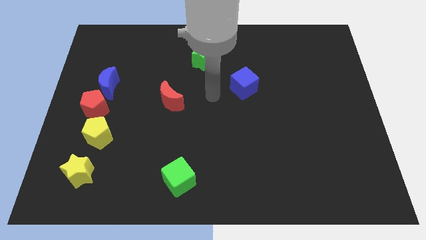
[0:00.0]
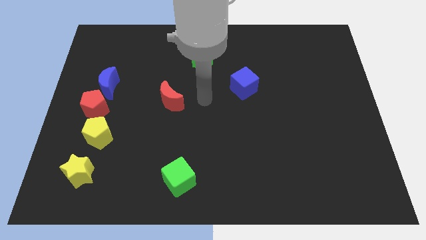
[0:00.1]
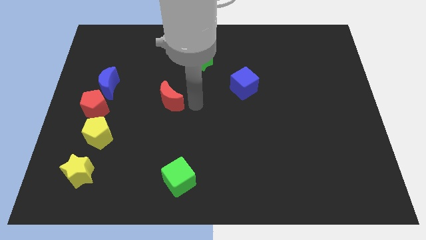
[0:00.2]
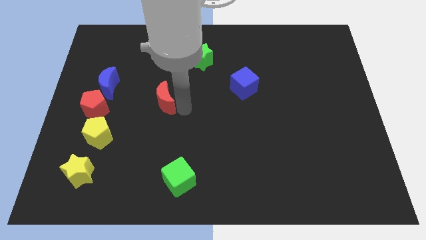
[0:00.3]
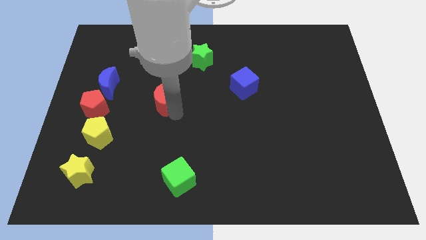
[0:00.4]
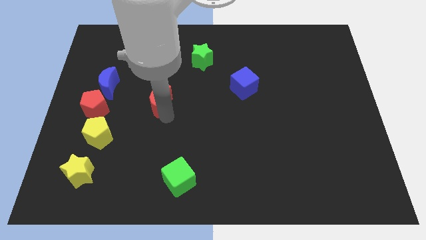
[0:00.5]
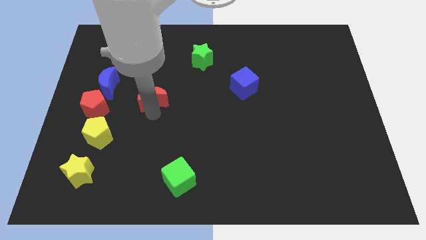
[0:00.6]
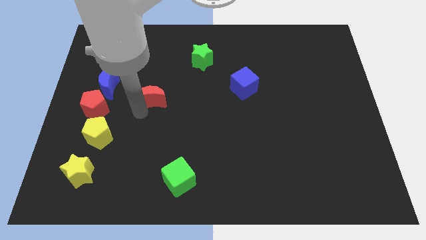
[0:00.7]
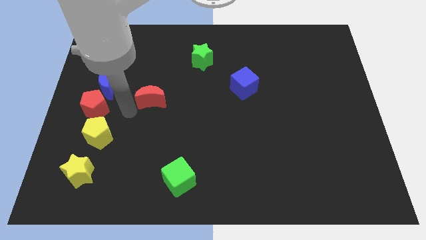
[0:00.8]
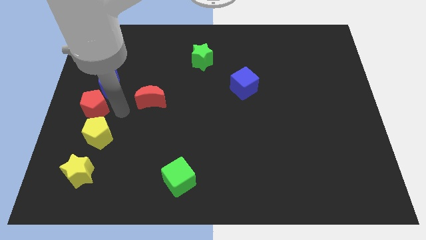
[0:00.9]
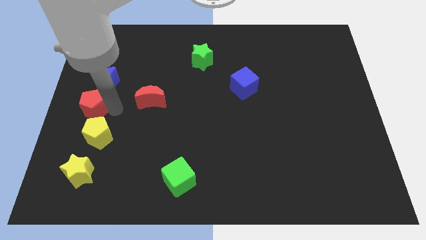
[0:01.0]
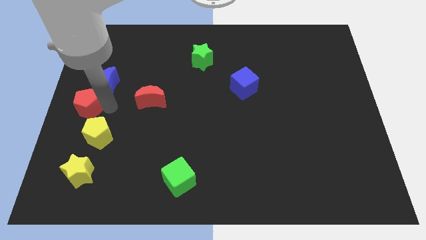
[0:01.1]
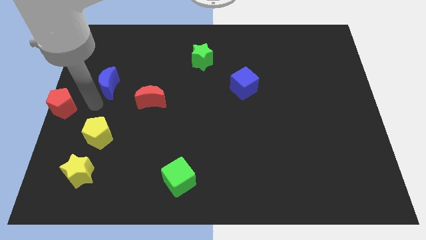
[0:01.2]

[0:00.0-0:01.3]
separate the blue moon from the red pentagon

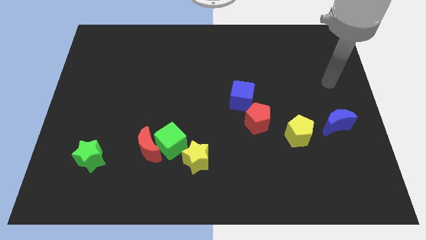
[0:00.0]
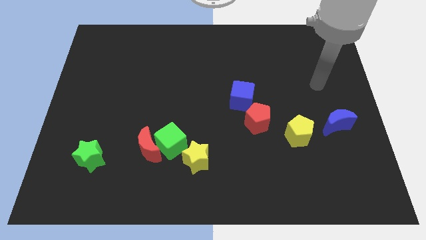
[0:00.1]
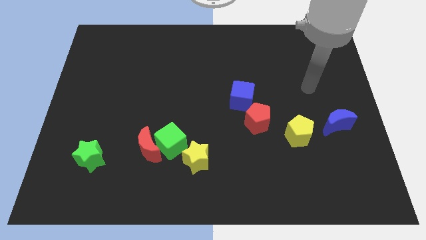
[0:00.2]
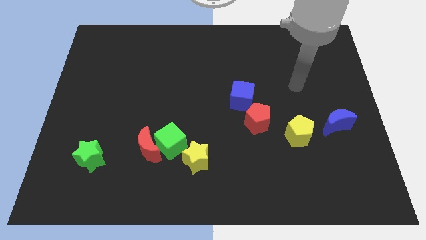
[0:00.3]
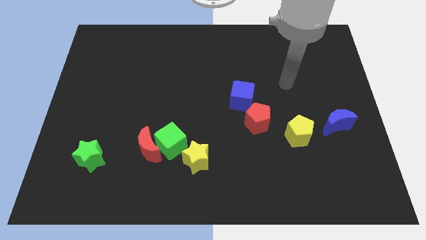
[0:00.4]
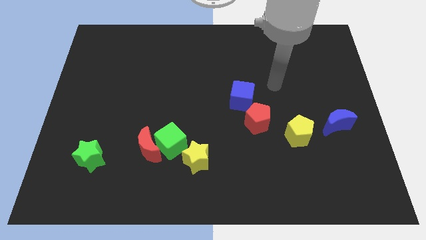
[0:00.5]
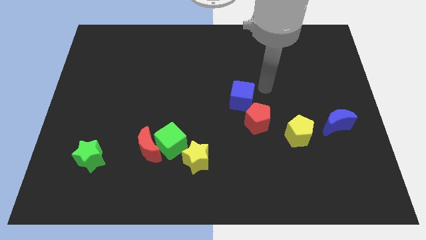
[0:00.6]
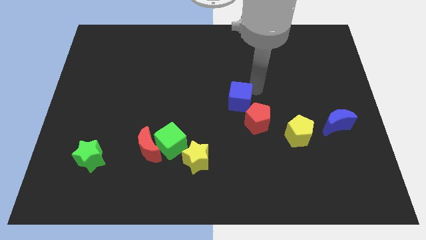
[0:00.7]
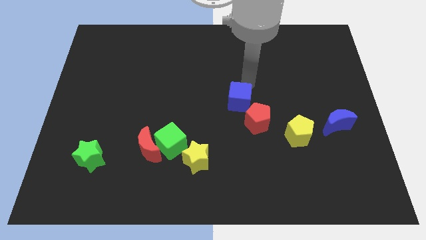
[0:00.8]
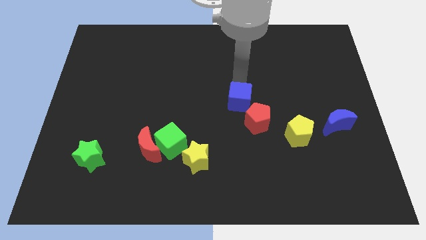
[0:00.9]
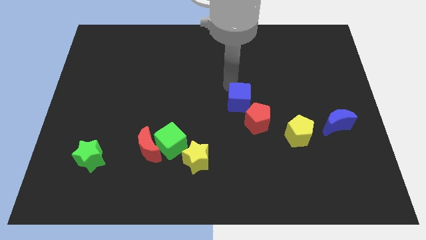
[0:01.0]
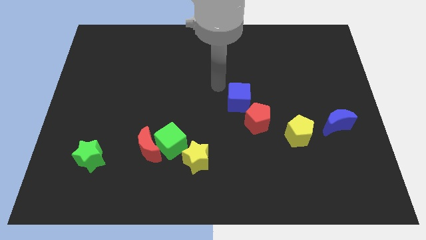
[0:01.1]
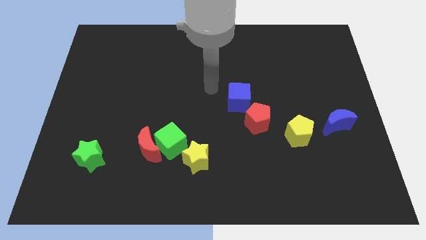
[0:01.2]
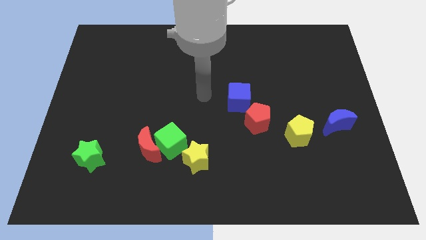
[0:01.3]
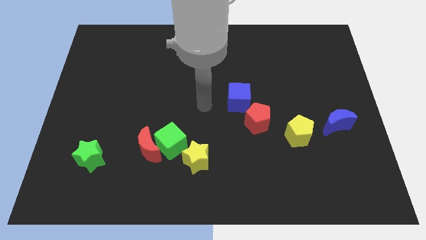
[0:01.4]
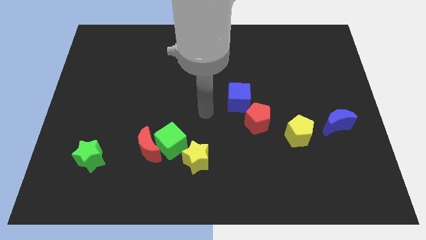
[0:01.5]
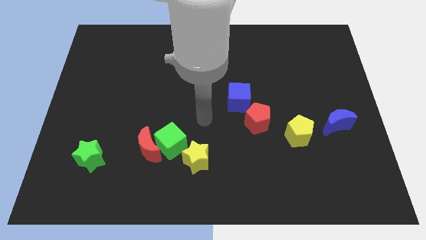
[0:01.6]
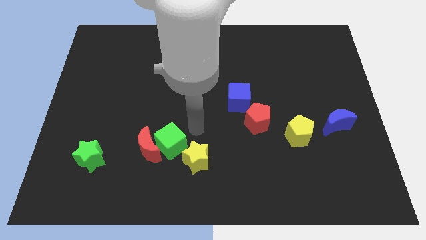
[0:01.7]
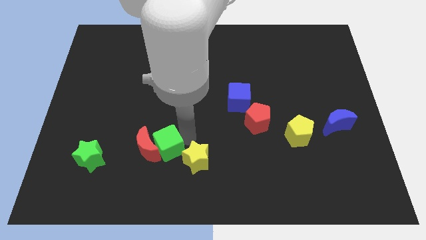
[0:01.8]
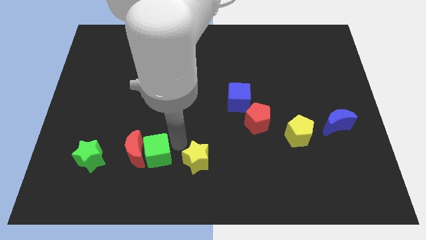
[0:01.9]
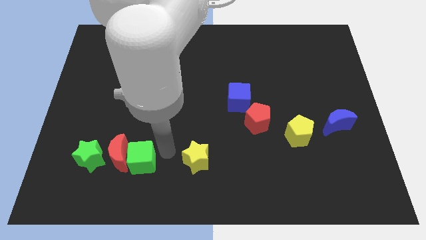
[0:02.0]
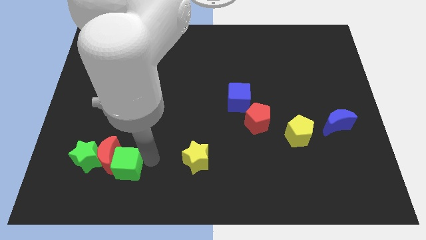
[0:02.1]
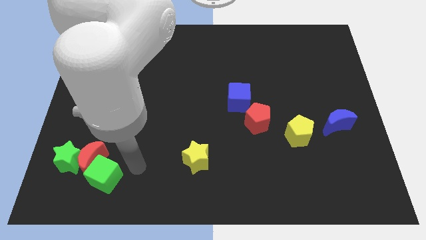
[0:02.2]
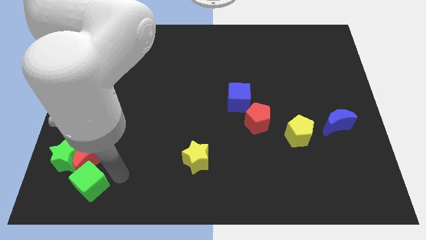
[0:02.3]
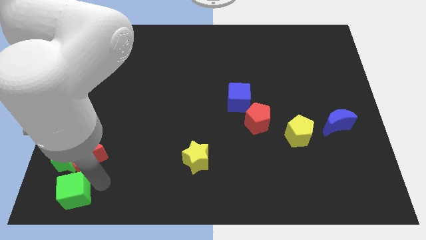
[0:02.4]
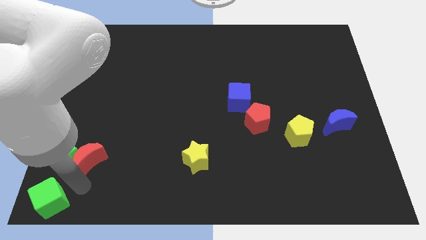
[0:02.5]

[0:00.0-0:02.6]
move the red moon away from the green cube

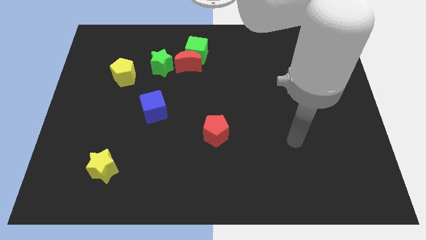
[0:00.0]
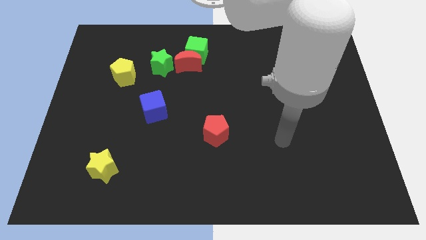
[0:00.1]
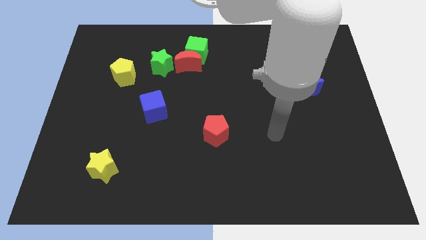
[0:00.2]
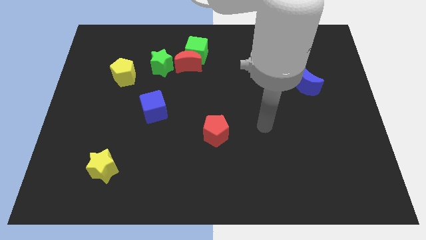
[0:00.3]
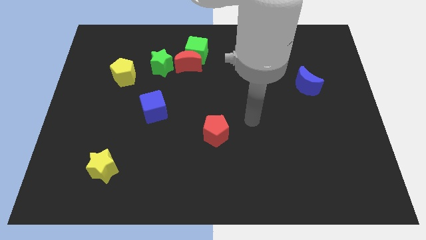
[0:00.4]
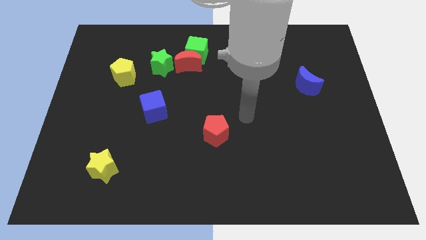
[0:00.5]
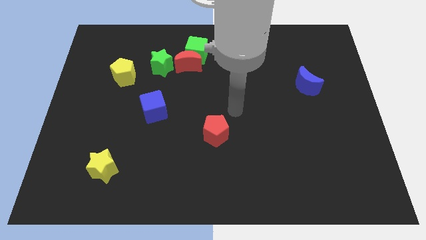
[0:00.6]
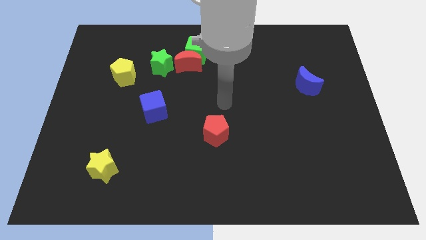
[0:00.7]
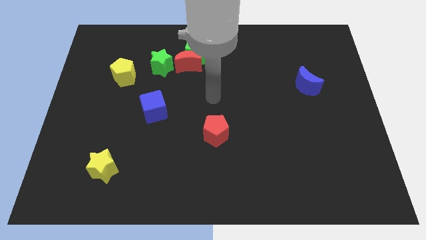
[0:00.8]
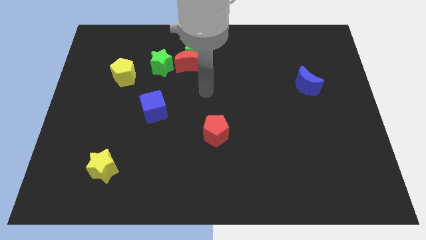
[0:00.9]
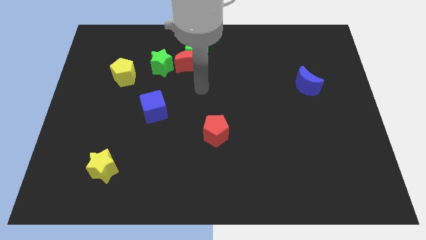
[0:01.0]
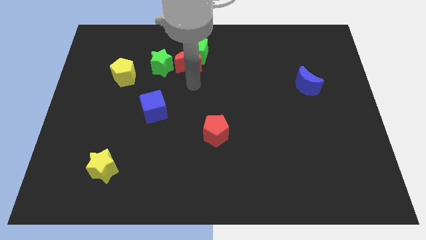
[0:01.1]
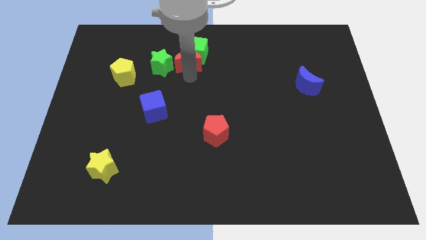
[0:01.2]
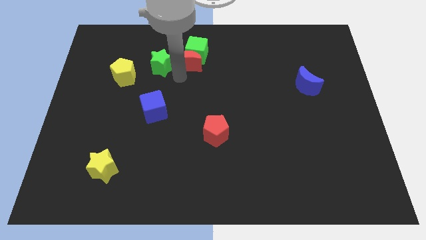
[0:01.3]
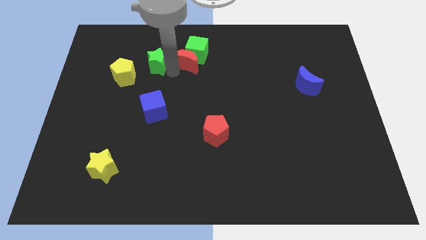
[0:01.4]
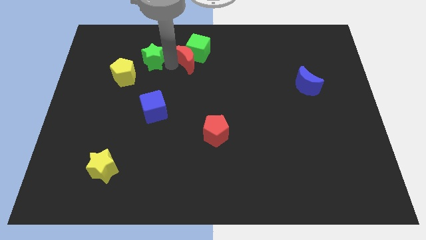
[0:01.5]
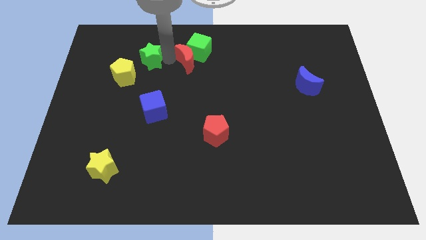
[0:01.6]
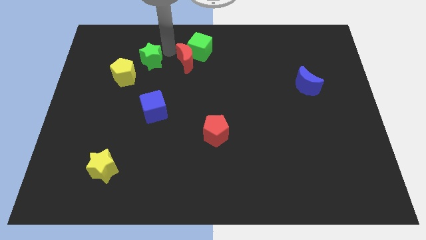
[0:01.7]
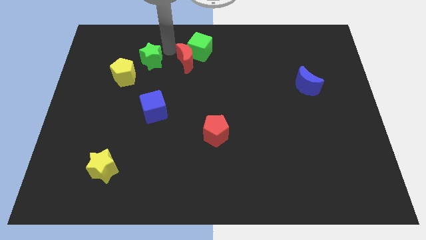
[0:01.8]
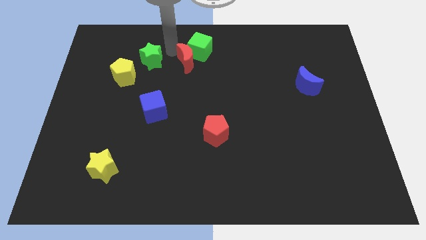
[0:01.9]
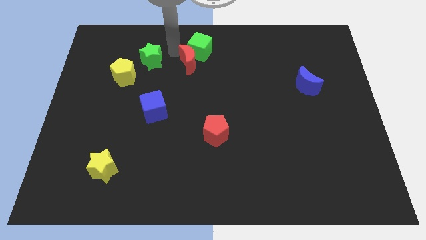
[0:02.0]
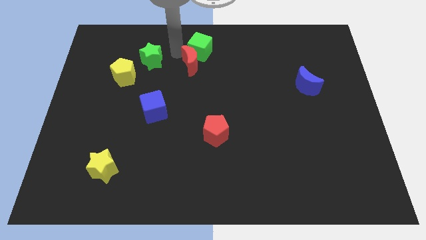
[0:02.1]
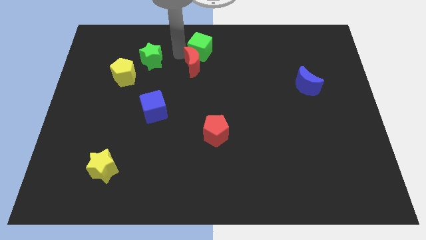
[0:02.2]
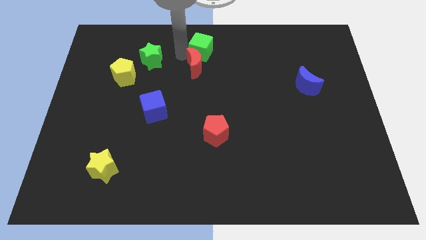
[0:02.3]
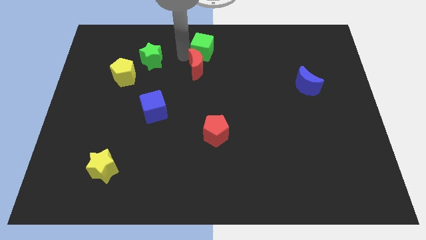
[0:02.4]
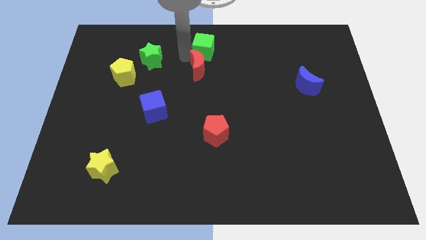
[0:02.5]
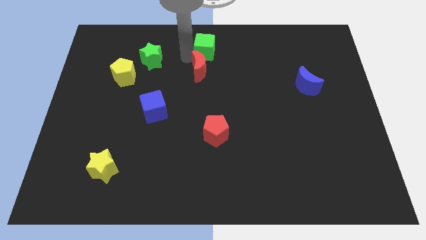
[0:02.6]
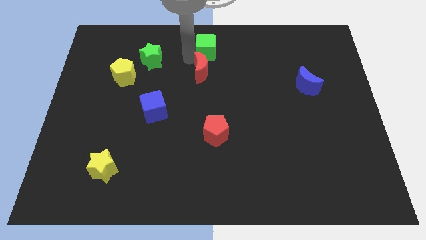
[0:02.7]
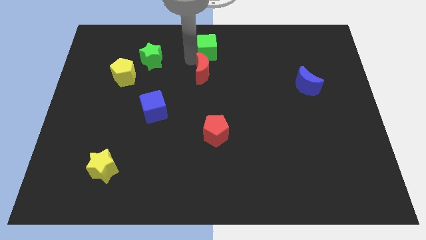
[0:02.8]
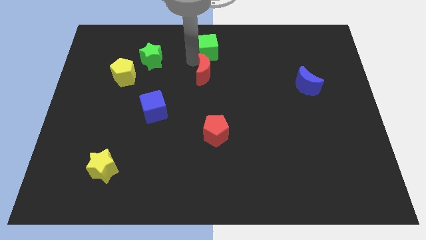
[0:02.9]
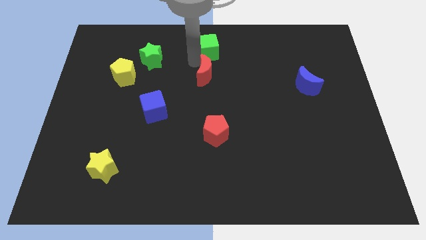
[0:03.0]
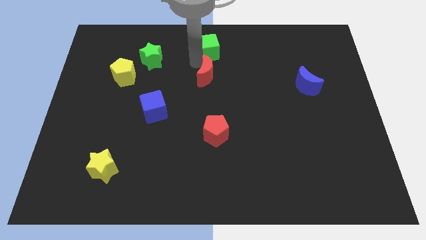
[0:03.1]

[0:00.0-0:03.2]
pull the red moon apart from the green cube and green star

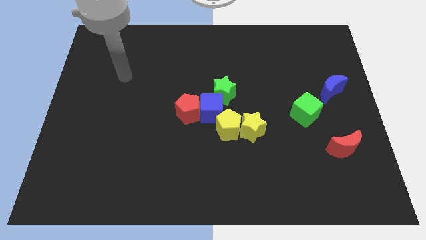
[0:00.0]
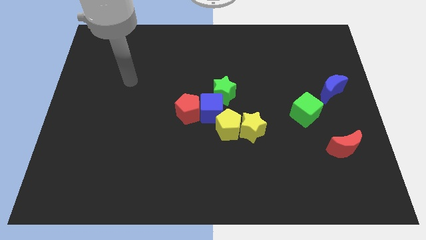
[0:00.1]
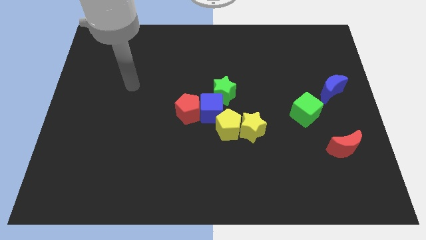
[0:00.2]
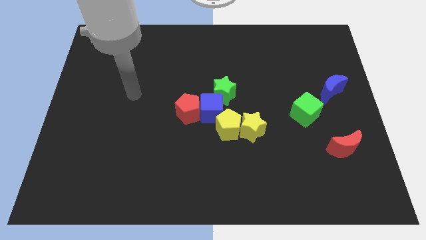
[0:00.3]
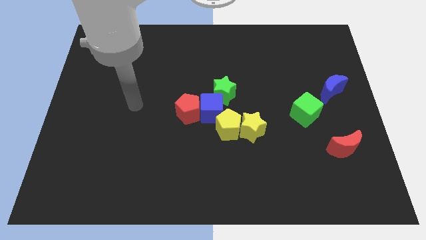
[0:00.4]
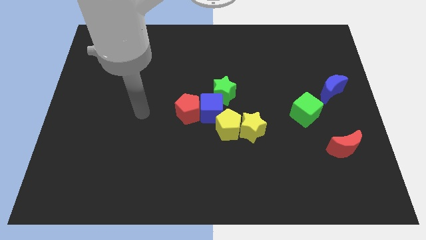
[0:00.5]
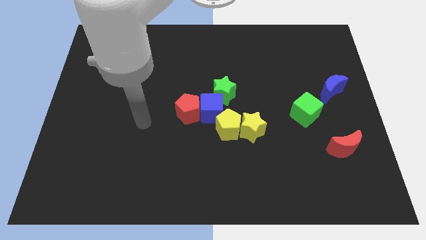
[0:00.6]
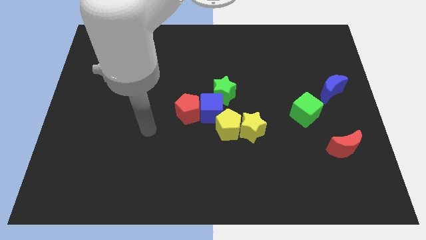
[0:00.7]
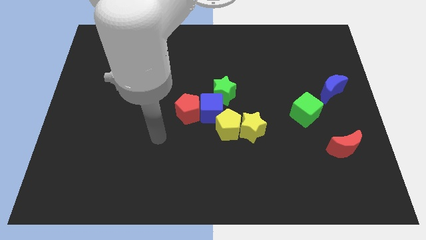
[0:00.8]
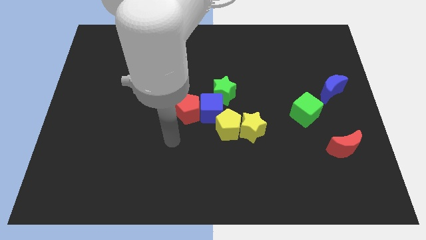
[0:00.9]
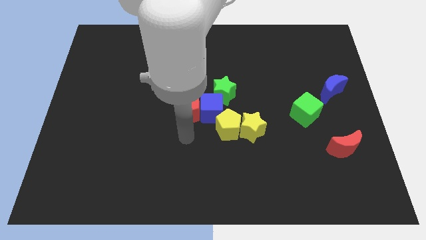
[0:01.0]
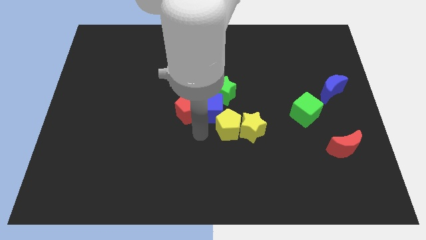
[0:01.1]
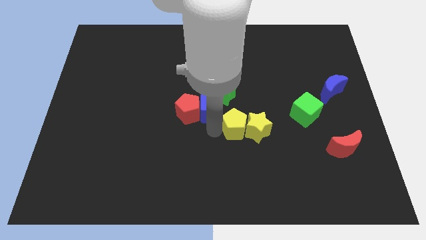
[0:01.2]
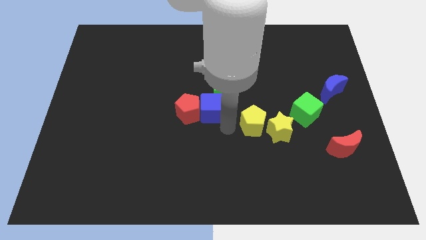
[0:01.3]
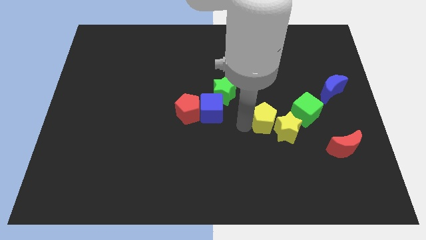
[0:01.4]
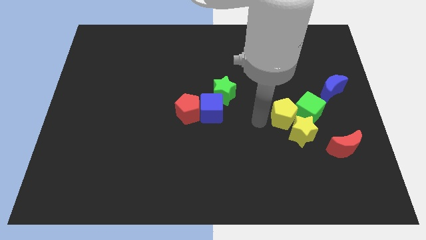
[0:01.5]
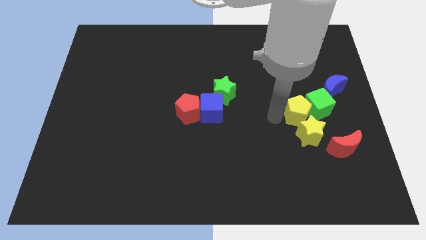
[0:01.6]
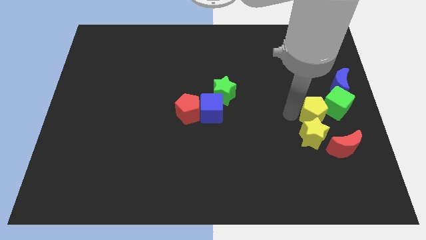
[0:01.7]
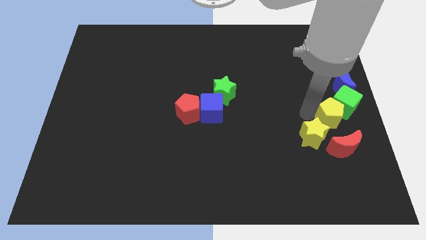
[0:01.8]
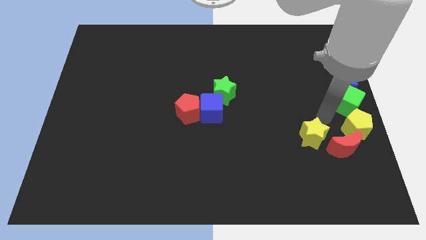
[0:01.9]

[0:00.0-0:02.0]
move the yellow star away from the yellow pentagon

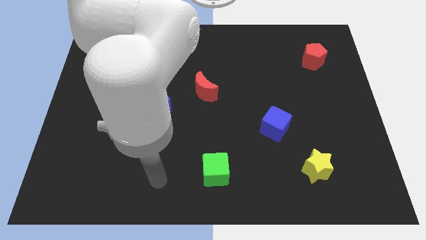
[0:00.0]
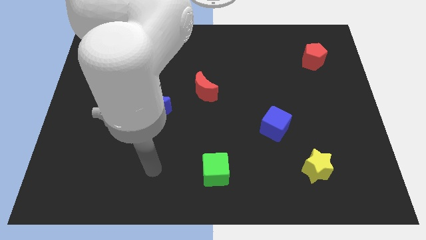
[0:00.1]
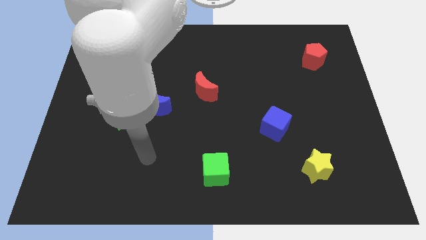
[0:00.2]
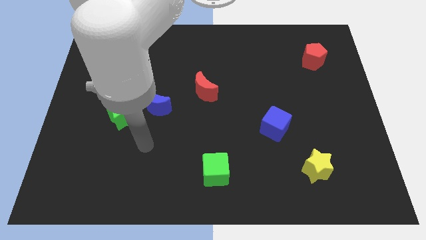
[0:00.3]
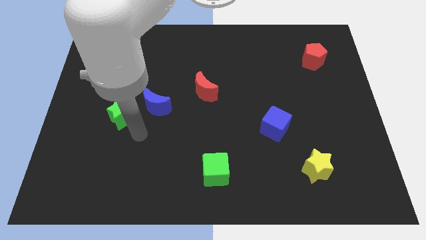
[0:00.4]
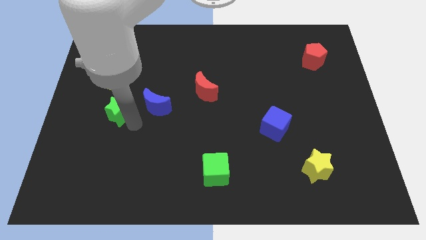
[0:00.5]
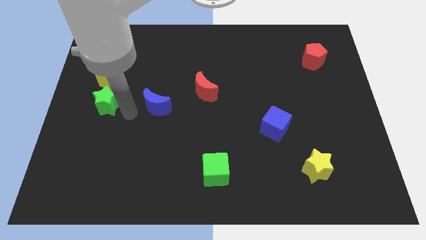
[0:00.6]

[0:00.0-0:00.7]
separate the blue moon from the green star
